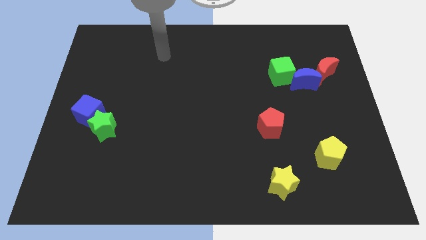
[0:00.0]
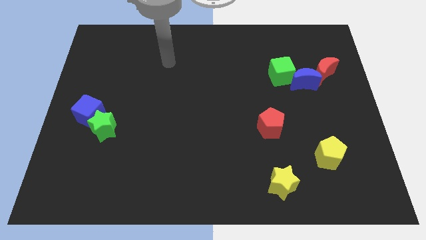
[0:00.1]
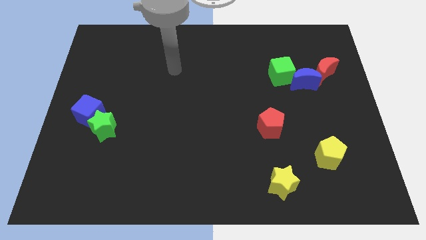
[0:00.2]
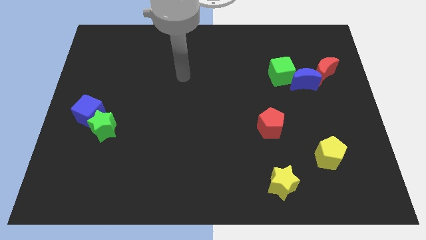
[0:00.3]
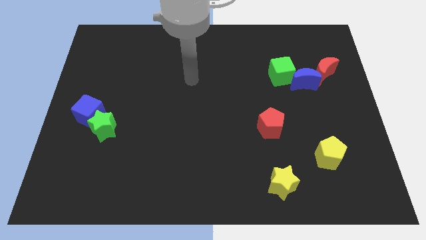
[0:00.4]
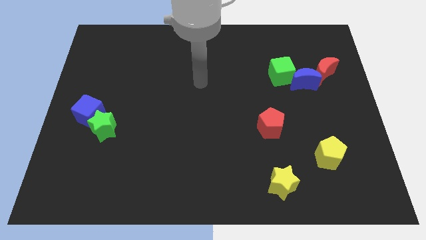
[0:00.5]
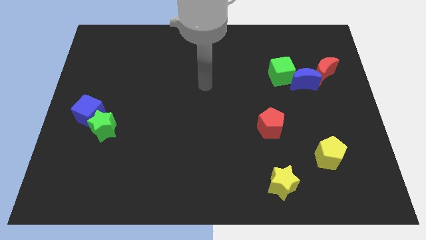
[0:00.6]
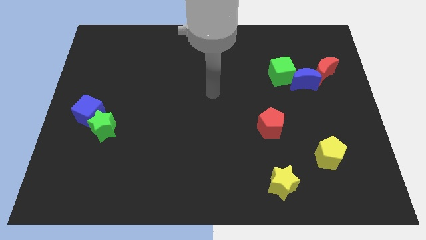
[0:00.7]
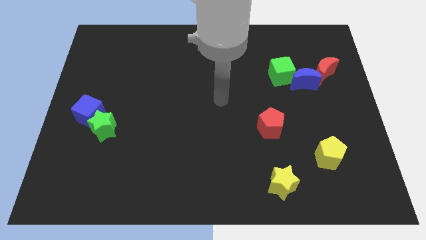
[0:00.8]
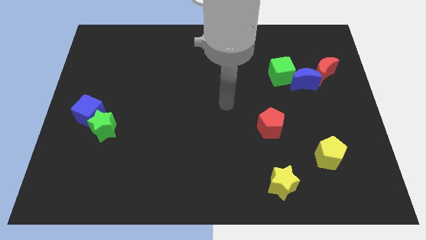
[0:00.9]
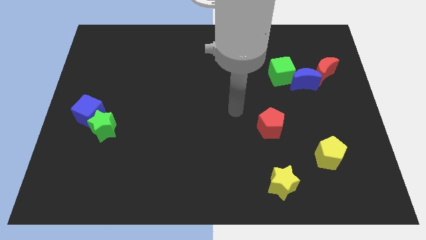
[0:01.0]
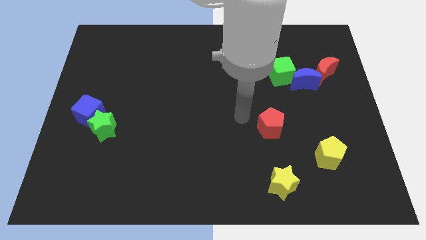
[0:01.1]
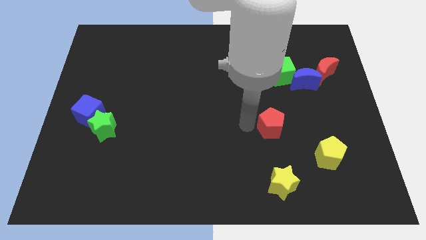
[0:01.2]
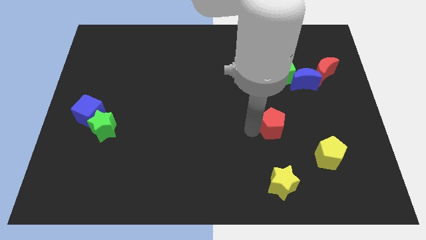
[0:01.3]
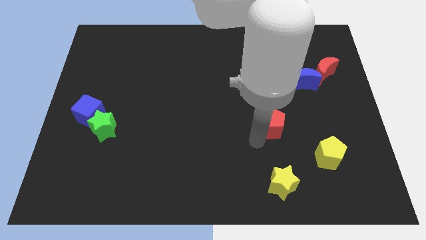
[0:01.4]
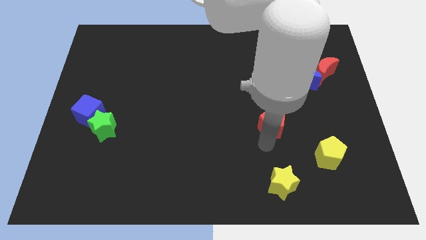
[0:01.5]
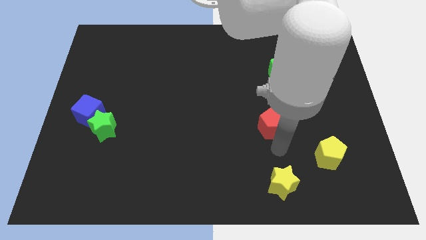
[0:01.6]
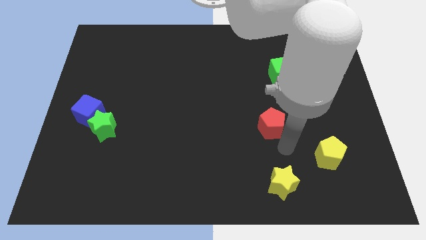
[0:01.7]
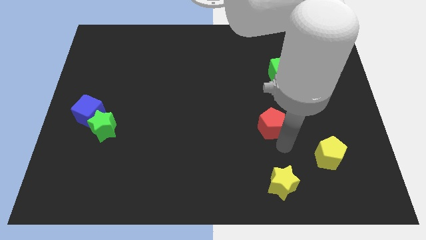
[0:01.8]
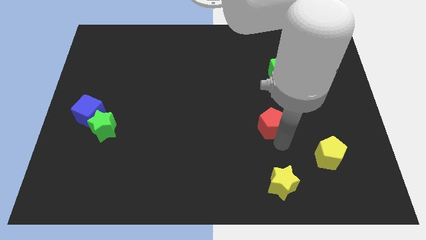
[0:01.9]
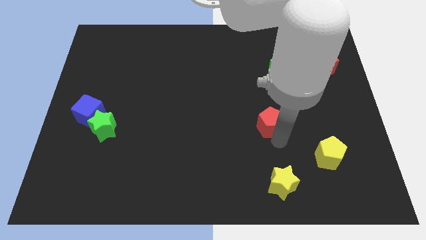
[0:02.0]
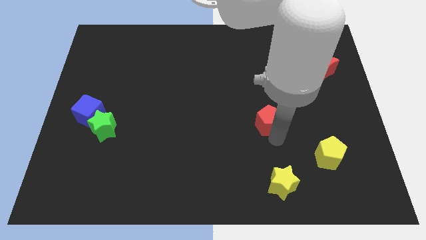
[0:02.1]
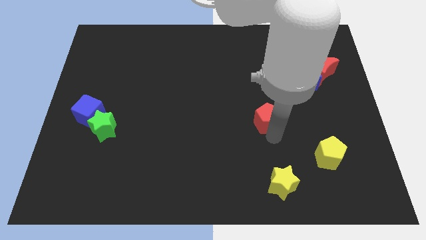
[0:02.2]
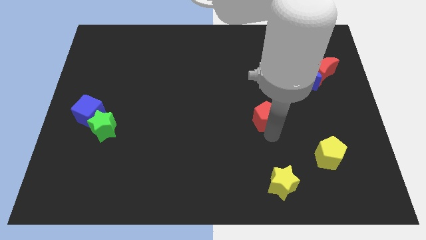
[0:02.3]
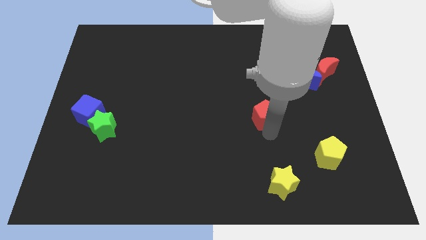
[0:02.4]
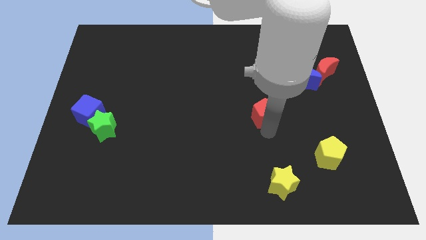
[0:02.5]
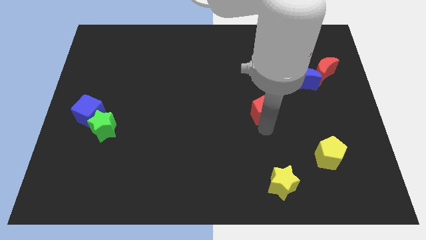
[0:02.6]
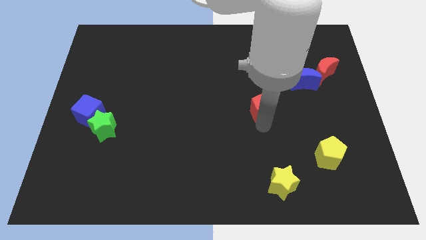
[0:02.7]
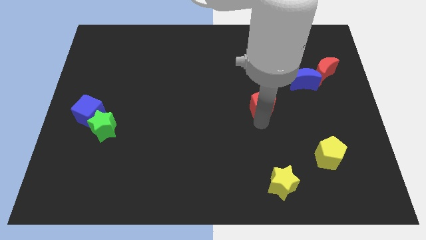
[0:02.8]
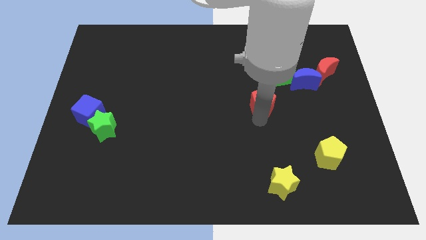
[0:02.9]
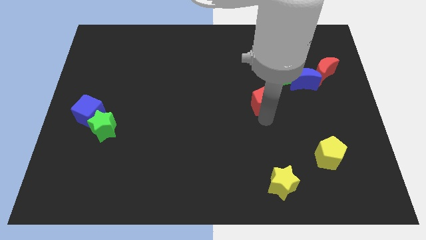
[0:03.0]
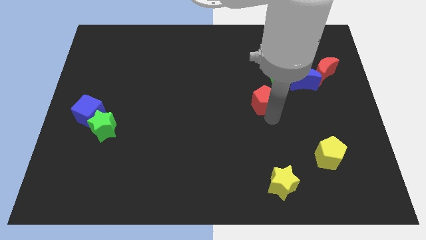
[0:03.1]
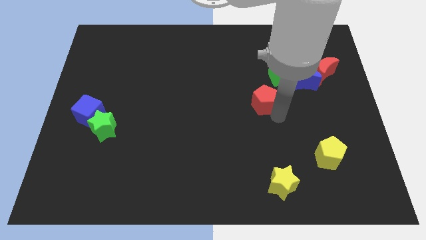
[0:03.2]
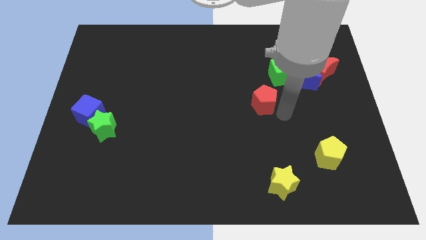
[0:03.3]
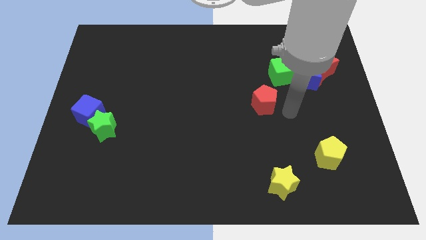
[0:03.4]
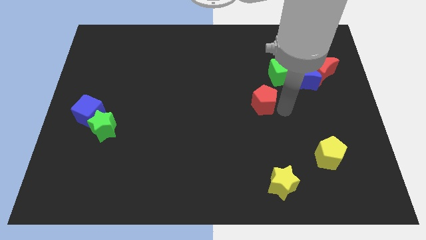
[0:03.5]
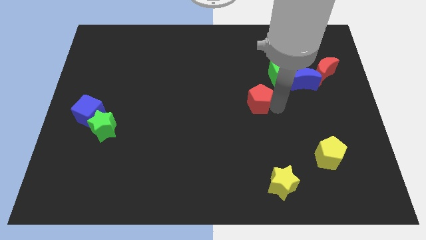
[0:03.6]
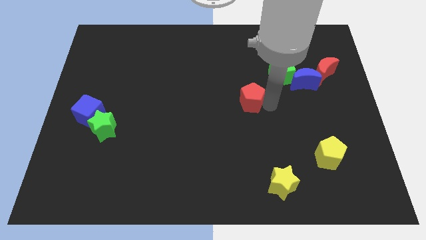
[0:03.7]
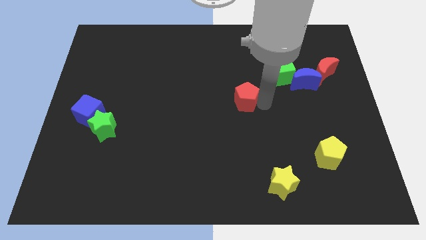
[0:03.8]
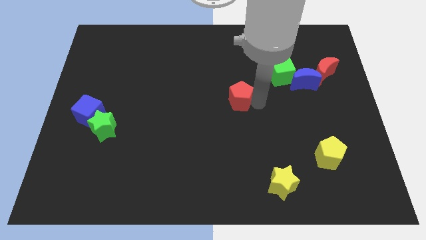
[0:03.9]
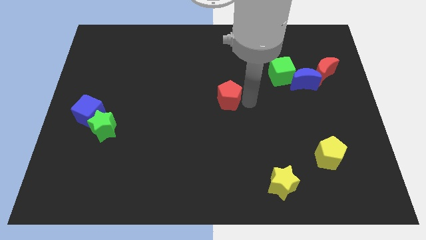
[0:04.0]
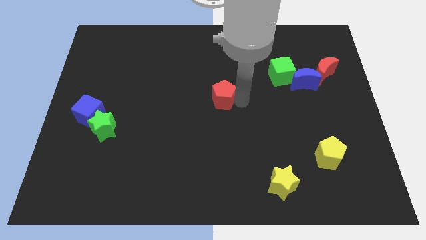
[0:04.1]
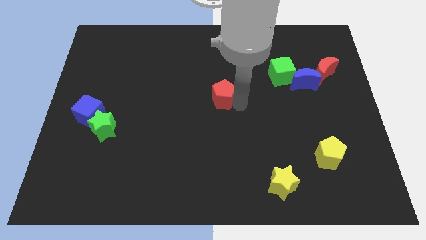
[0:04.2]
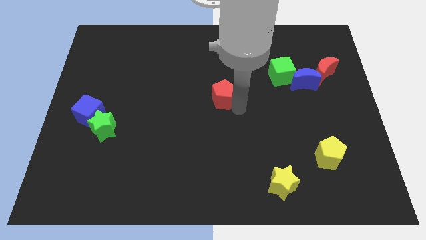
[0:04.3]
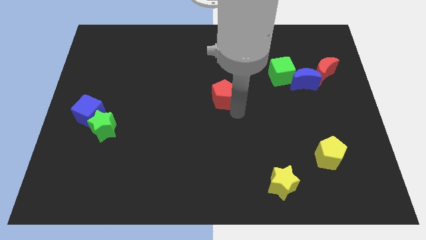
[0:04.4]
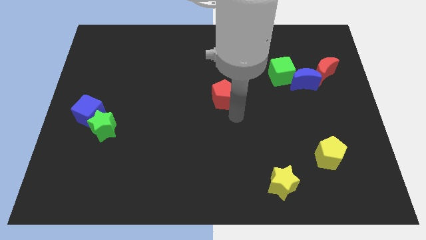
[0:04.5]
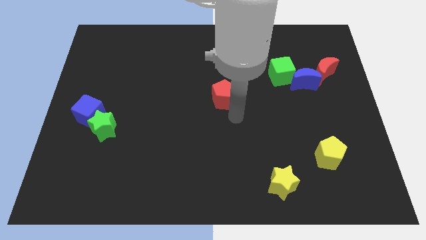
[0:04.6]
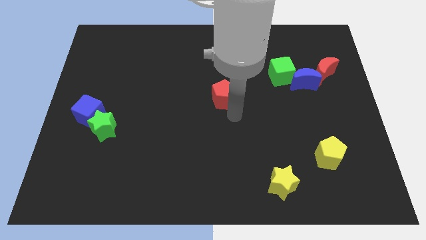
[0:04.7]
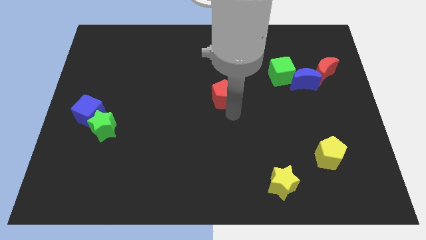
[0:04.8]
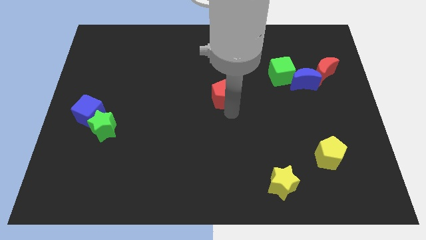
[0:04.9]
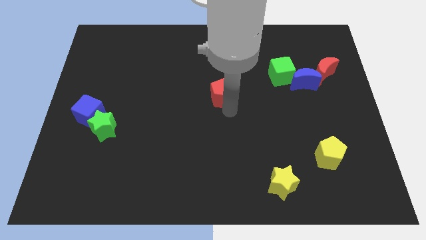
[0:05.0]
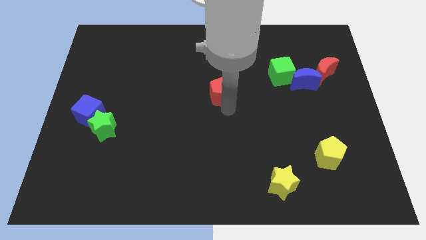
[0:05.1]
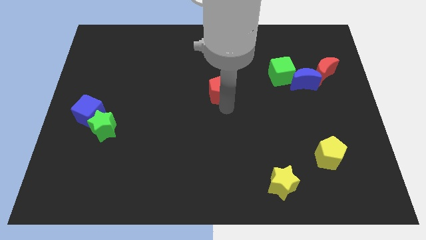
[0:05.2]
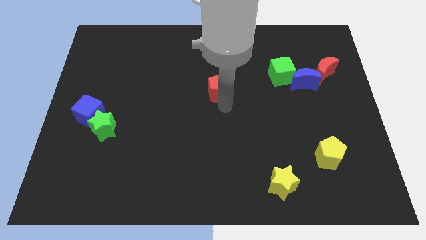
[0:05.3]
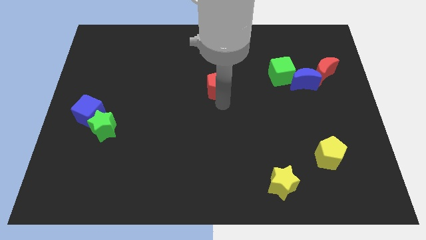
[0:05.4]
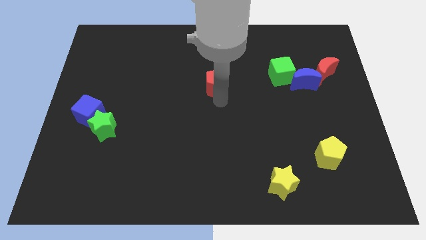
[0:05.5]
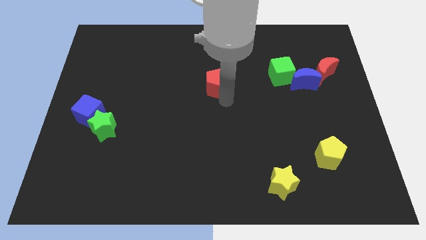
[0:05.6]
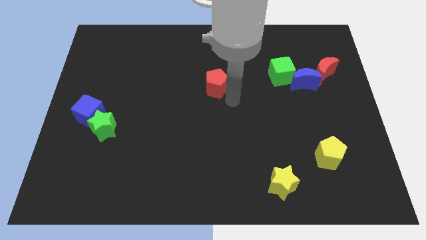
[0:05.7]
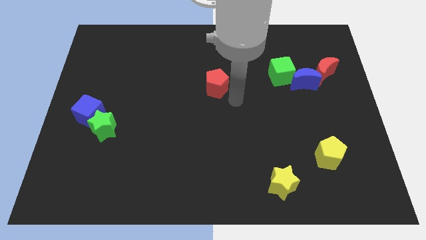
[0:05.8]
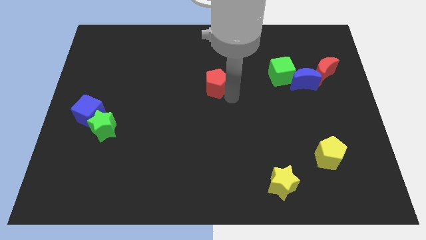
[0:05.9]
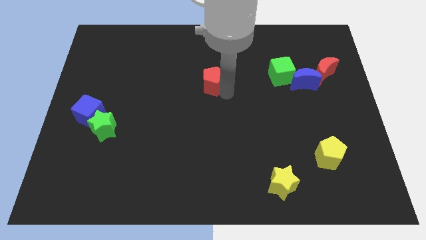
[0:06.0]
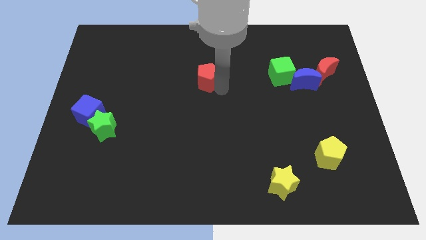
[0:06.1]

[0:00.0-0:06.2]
push the red pentagon up and then to the left

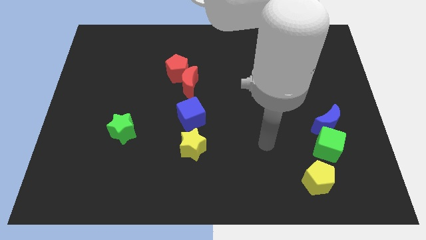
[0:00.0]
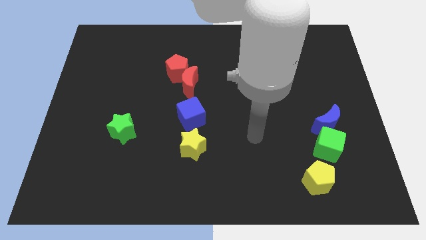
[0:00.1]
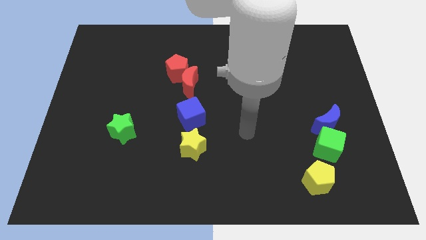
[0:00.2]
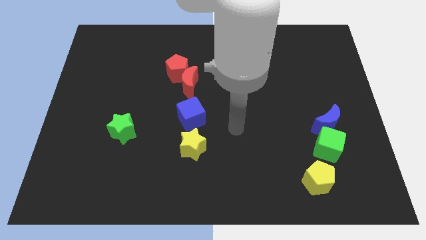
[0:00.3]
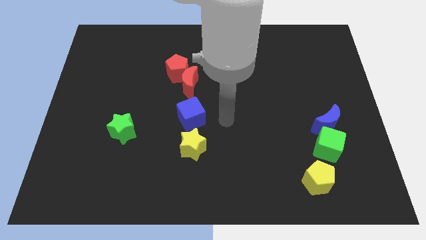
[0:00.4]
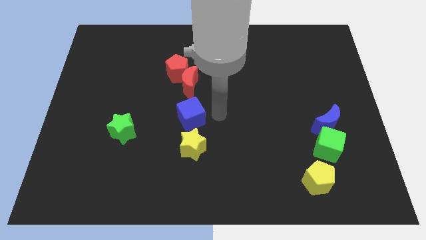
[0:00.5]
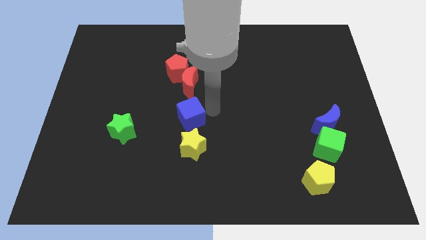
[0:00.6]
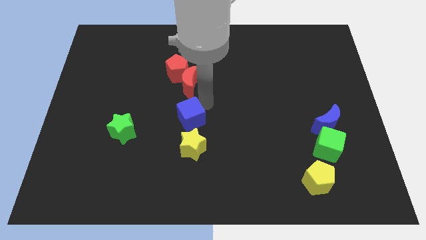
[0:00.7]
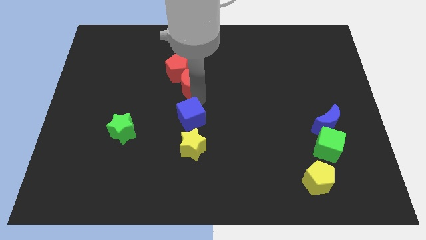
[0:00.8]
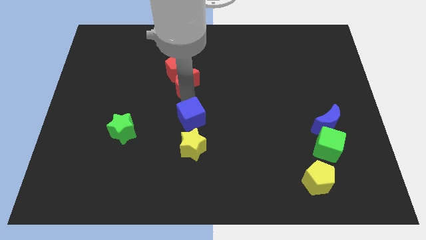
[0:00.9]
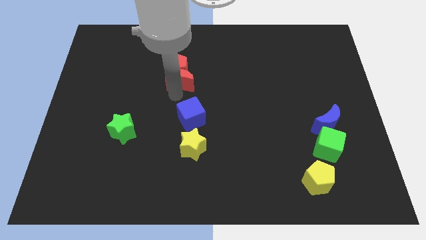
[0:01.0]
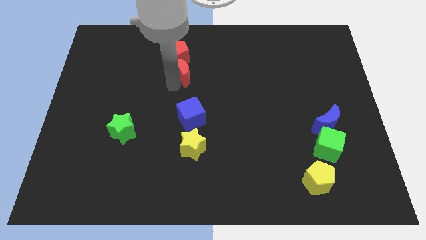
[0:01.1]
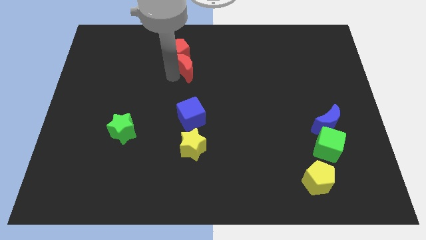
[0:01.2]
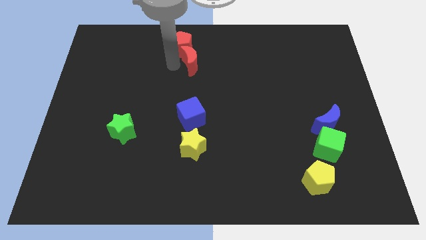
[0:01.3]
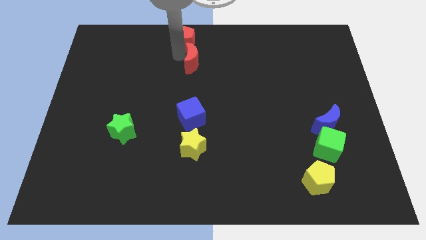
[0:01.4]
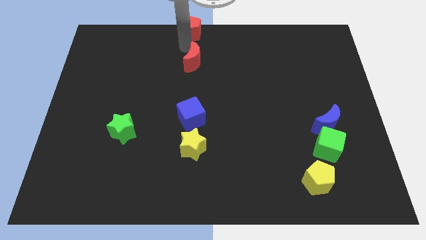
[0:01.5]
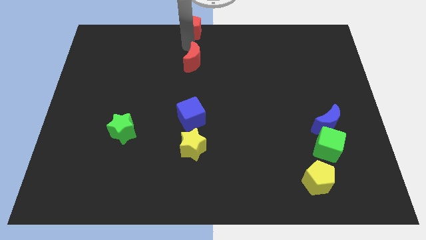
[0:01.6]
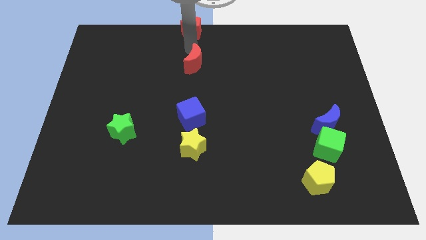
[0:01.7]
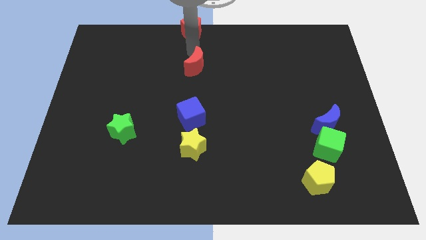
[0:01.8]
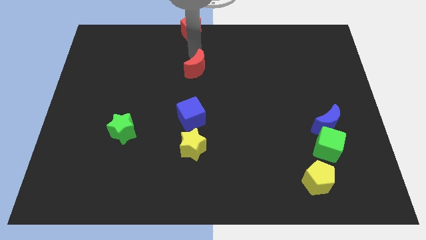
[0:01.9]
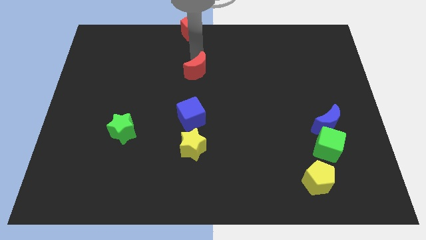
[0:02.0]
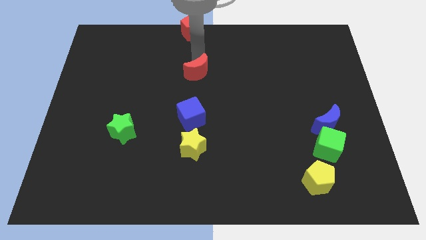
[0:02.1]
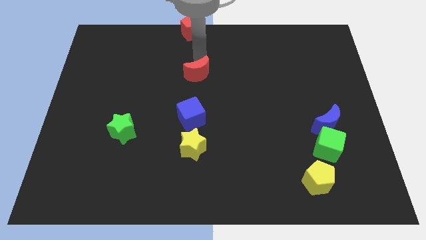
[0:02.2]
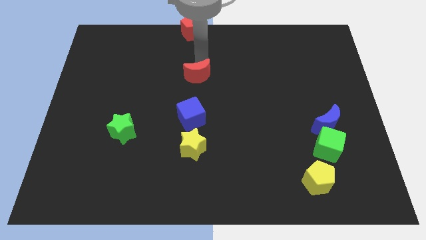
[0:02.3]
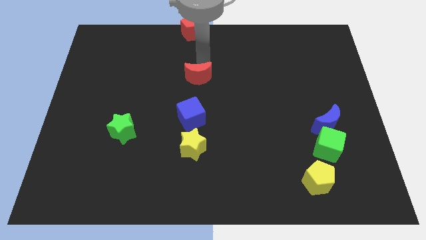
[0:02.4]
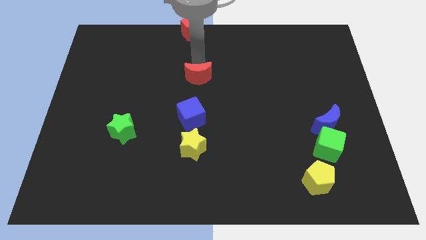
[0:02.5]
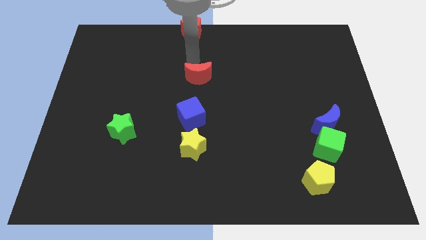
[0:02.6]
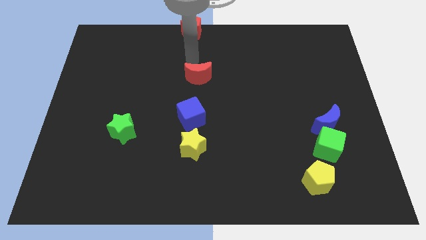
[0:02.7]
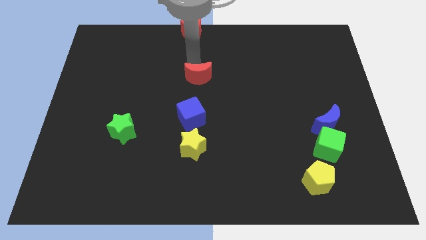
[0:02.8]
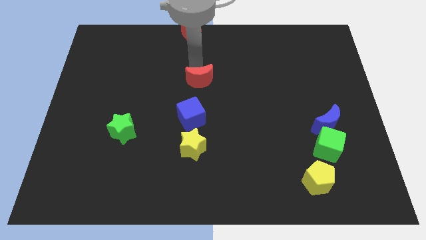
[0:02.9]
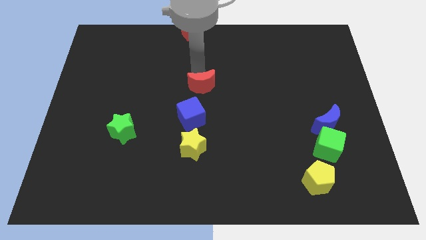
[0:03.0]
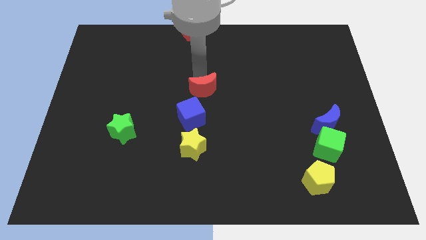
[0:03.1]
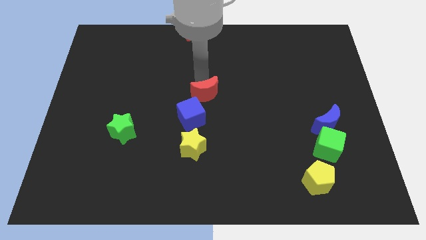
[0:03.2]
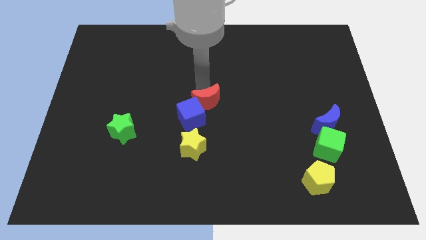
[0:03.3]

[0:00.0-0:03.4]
move the red moon a little down and then right
